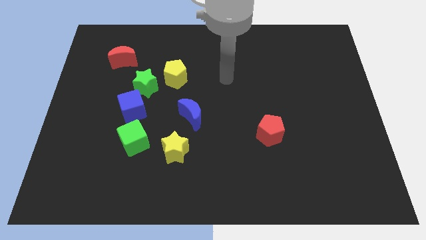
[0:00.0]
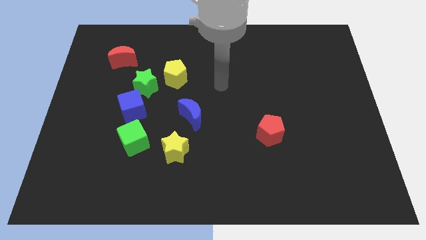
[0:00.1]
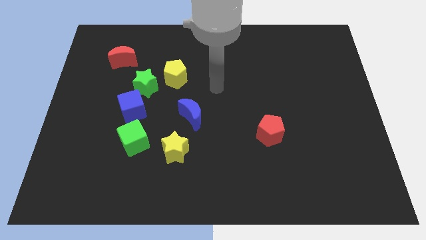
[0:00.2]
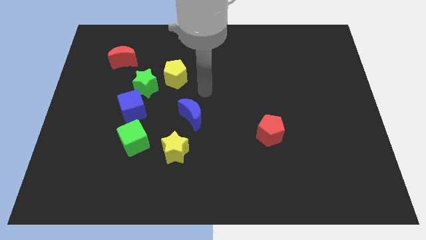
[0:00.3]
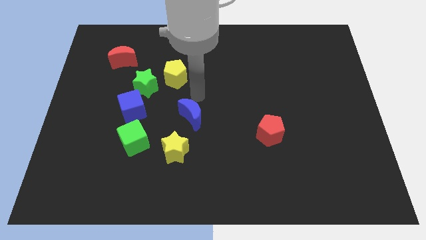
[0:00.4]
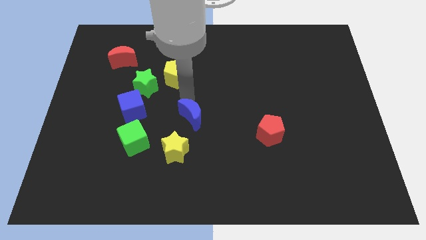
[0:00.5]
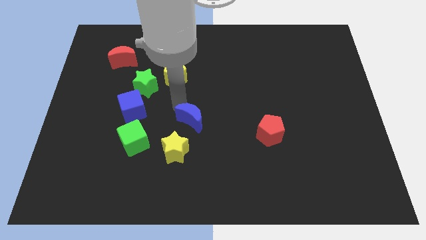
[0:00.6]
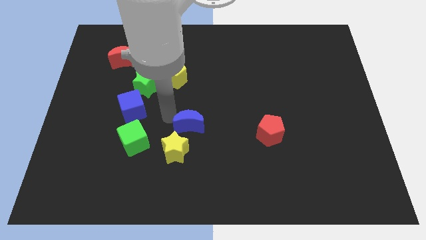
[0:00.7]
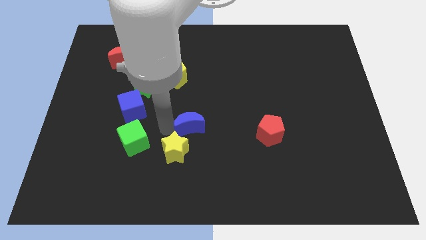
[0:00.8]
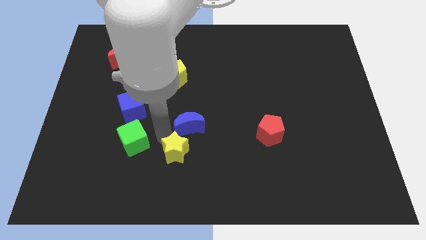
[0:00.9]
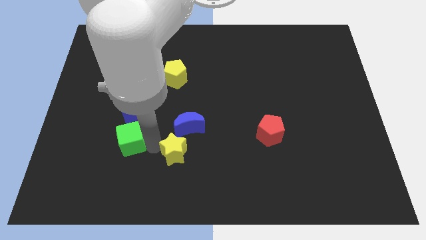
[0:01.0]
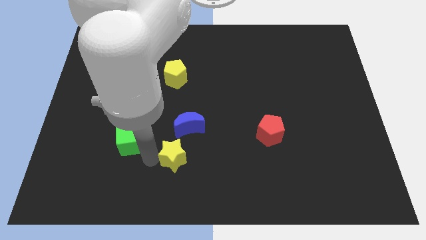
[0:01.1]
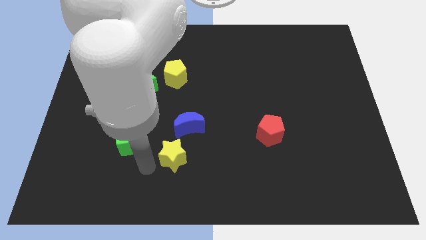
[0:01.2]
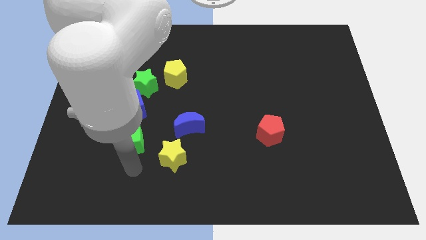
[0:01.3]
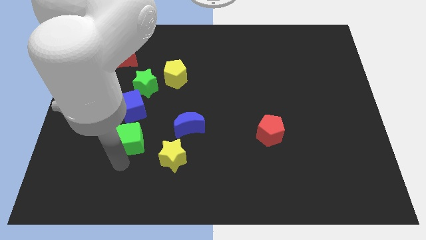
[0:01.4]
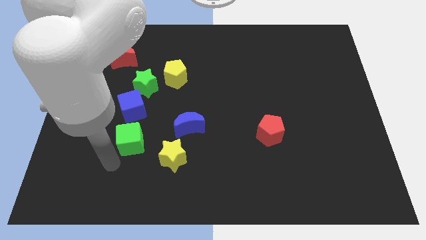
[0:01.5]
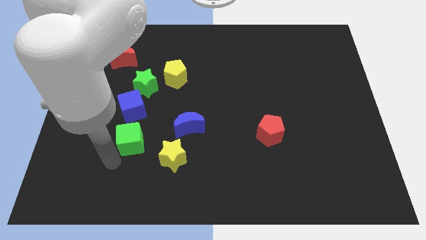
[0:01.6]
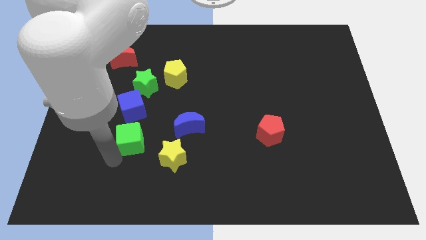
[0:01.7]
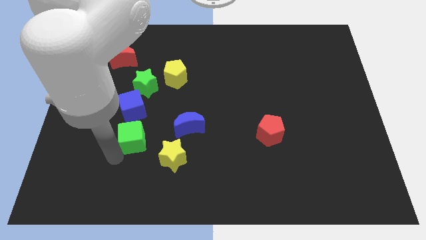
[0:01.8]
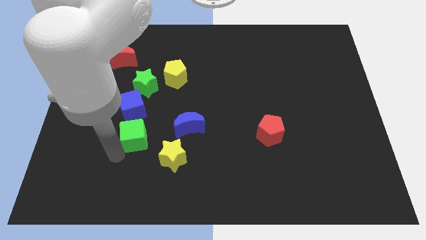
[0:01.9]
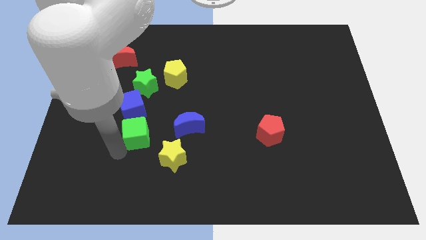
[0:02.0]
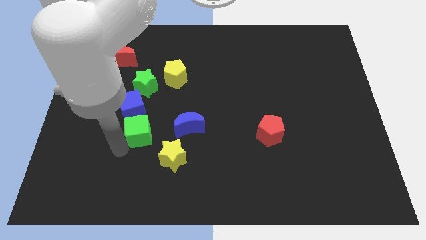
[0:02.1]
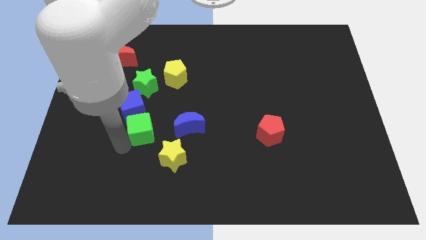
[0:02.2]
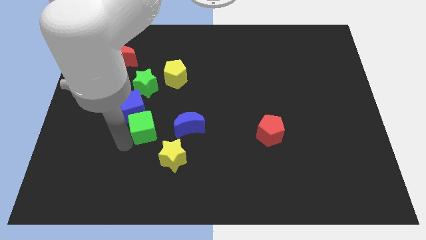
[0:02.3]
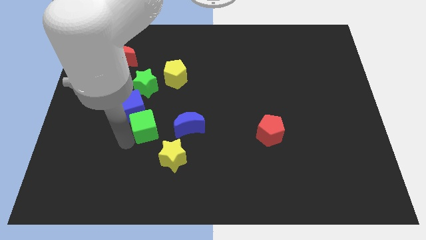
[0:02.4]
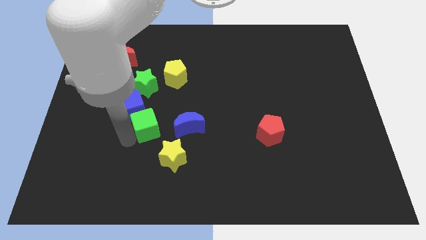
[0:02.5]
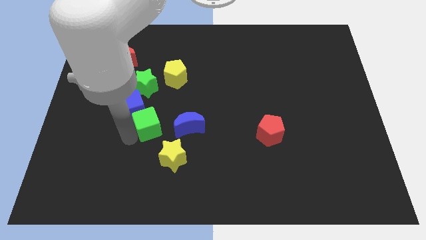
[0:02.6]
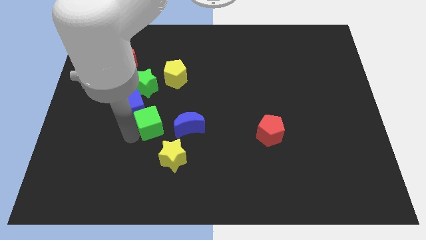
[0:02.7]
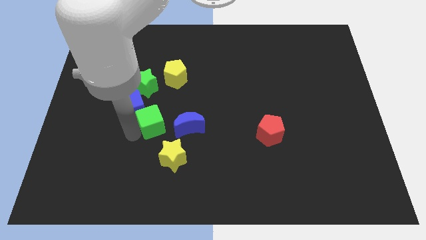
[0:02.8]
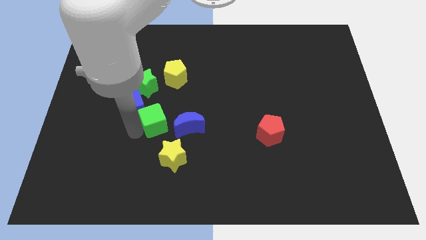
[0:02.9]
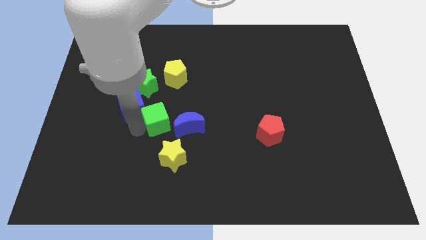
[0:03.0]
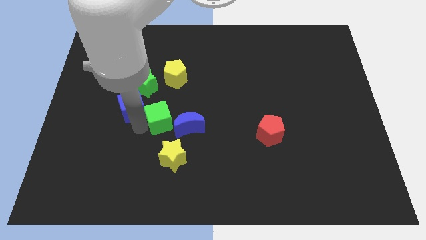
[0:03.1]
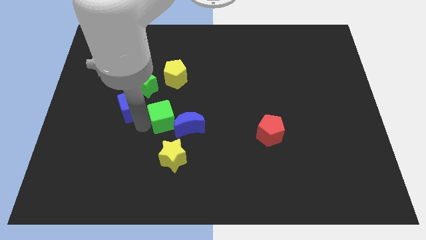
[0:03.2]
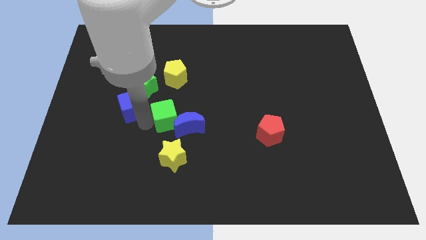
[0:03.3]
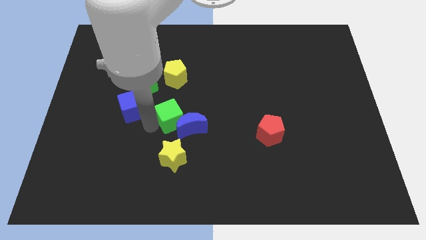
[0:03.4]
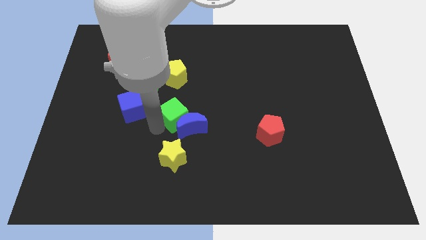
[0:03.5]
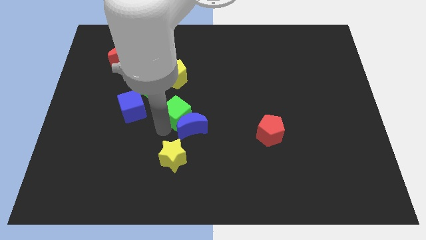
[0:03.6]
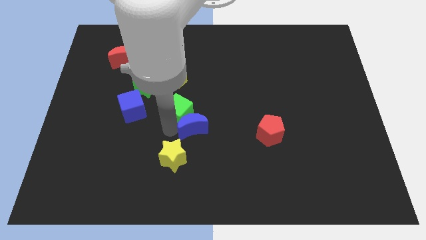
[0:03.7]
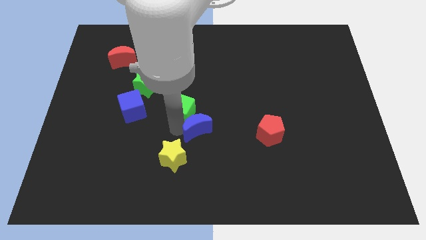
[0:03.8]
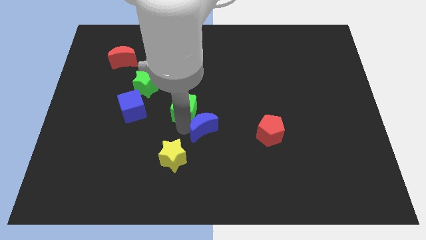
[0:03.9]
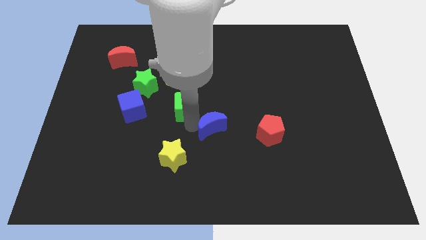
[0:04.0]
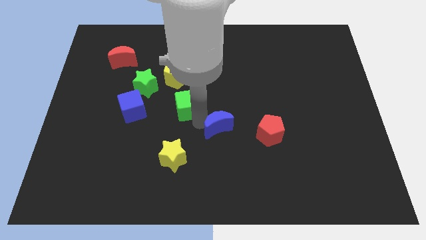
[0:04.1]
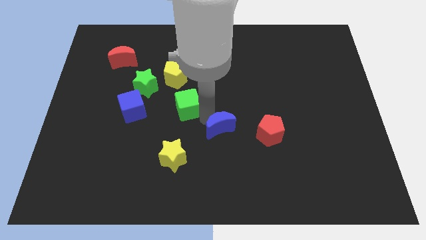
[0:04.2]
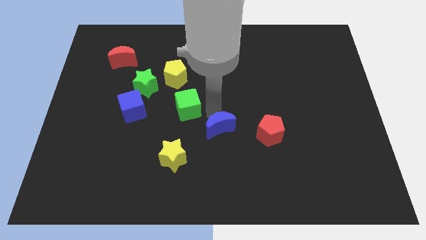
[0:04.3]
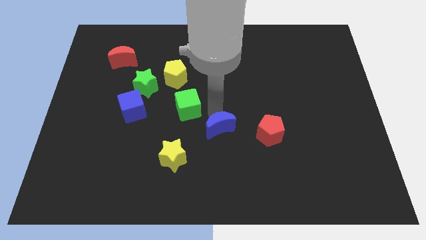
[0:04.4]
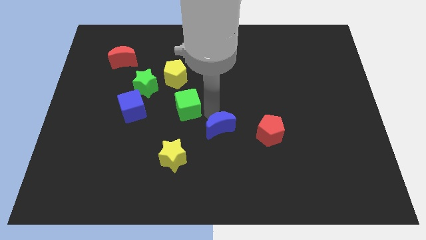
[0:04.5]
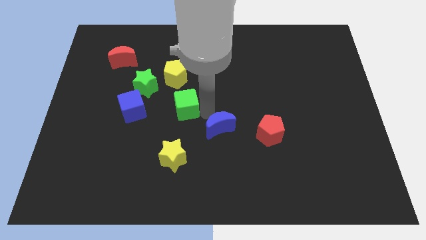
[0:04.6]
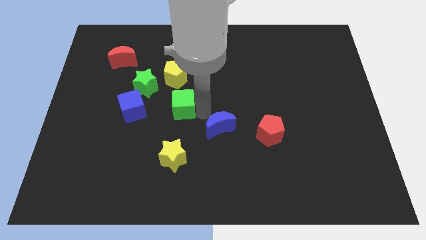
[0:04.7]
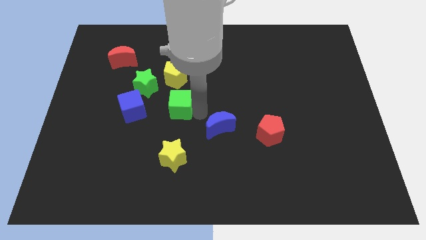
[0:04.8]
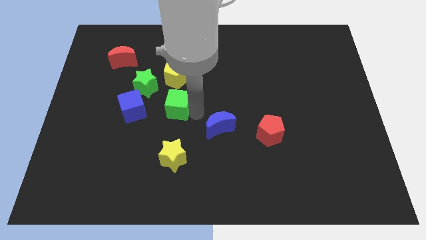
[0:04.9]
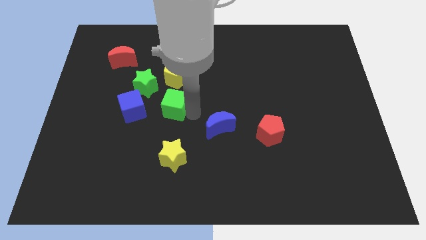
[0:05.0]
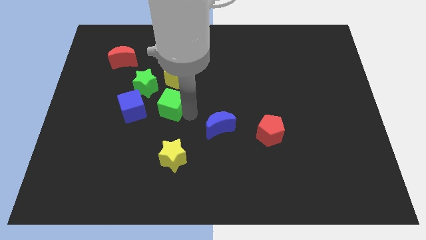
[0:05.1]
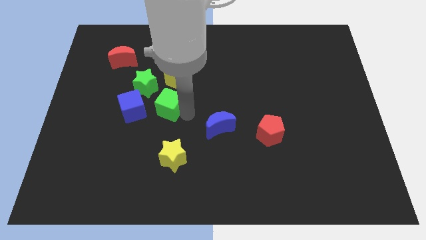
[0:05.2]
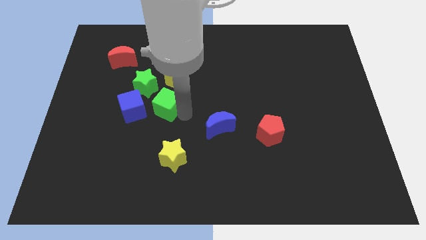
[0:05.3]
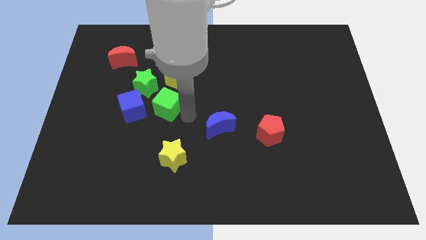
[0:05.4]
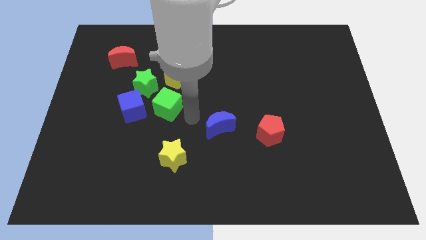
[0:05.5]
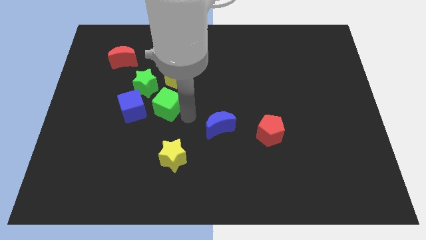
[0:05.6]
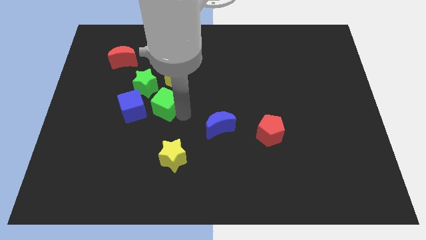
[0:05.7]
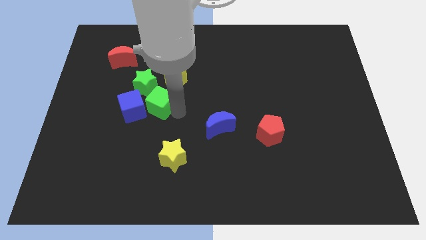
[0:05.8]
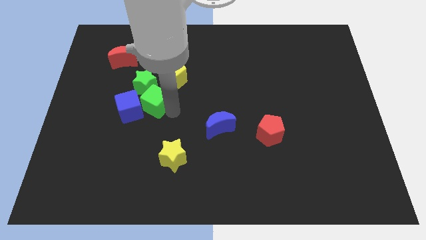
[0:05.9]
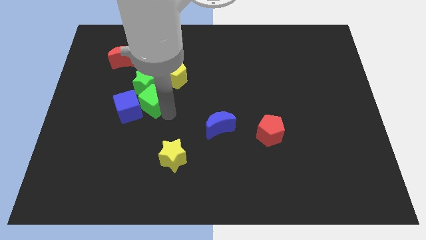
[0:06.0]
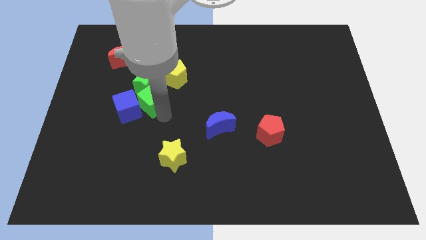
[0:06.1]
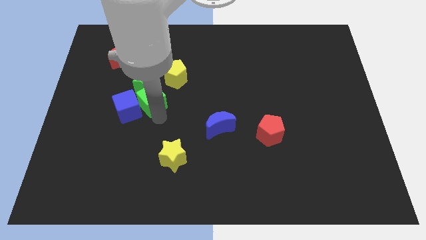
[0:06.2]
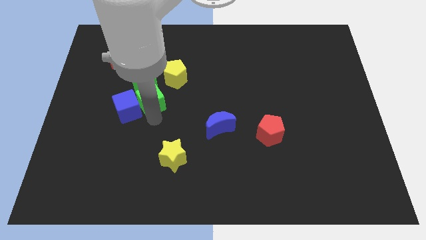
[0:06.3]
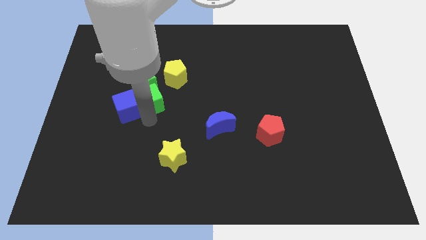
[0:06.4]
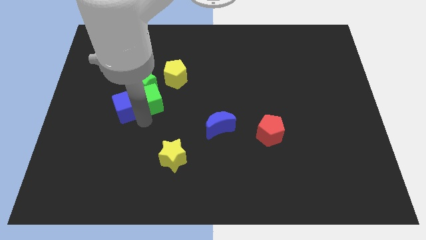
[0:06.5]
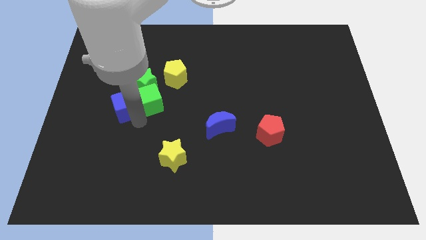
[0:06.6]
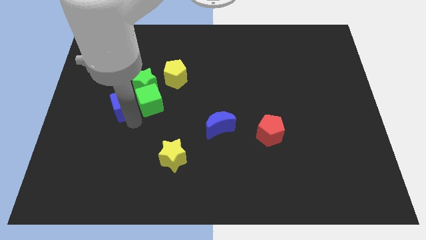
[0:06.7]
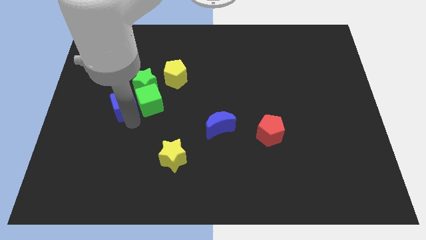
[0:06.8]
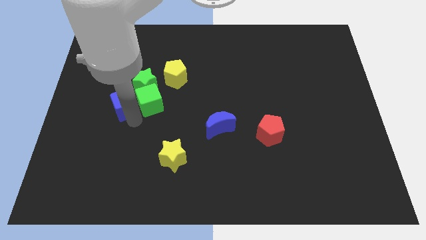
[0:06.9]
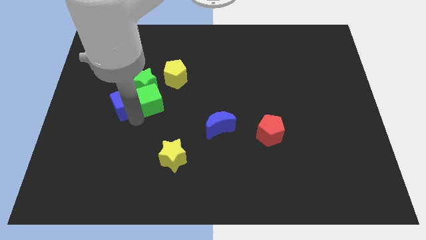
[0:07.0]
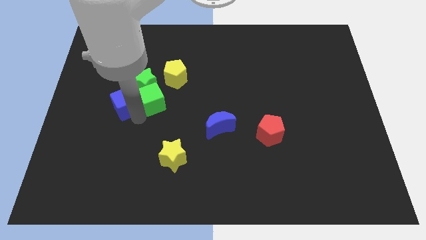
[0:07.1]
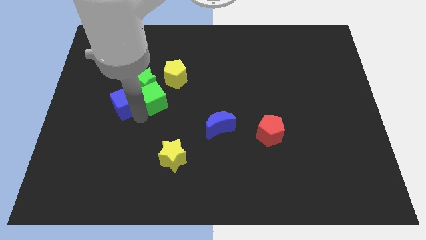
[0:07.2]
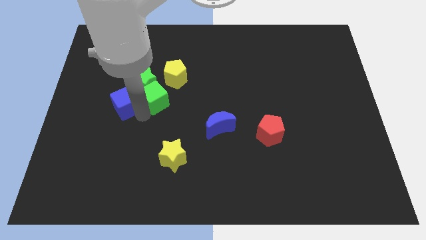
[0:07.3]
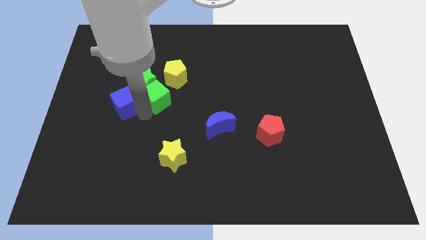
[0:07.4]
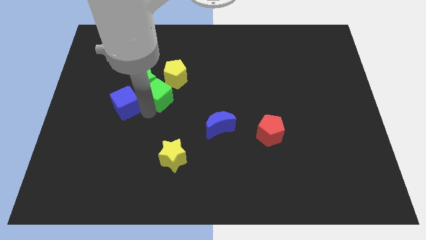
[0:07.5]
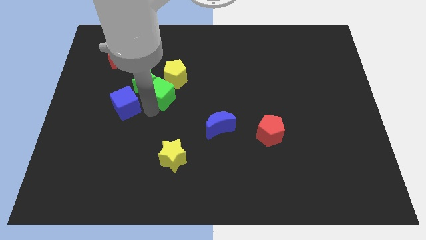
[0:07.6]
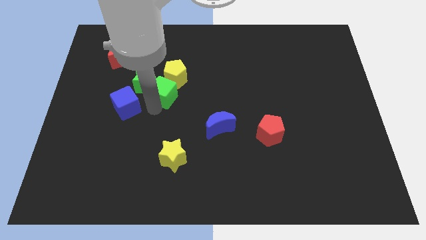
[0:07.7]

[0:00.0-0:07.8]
push the green cube close to the yellow pentagon
